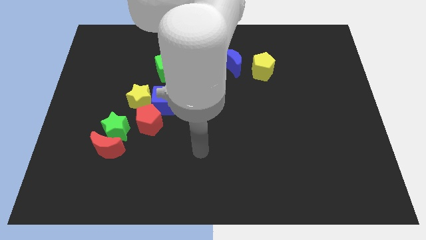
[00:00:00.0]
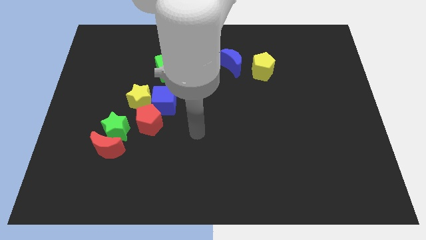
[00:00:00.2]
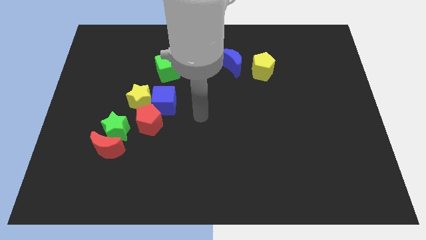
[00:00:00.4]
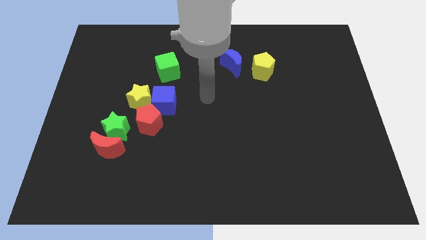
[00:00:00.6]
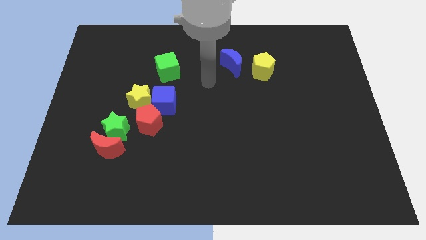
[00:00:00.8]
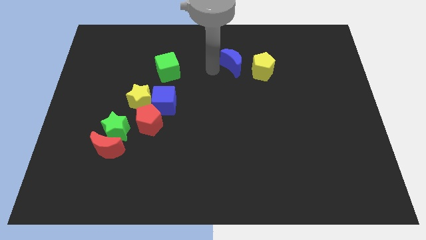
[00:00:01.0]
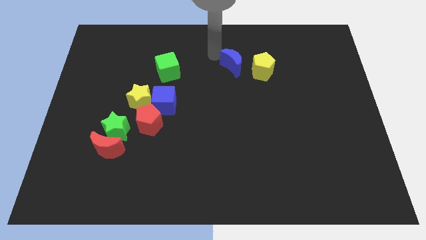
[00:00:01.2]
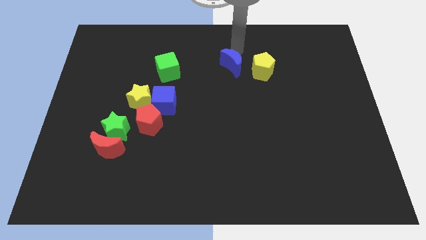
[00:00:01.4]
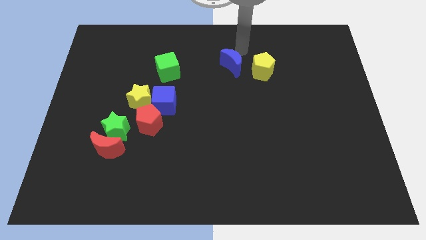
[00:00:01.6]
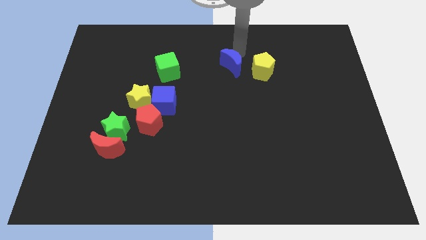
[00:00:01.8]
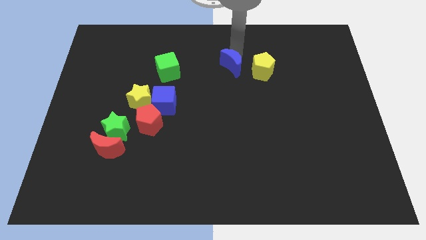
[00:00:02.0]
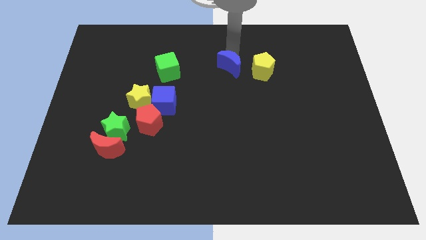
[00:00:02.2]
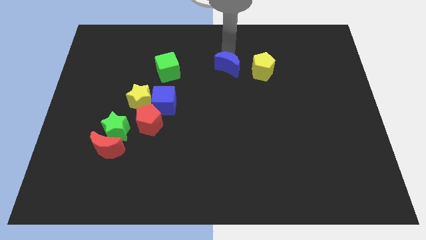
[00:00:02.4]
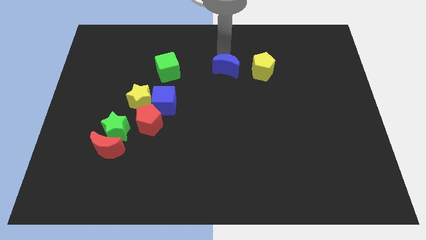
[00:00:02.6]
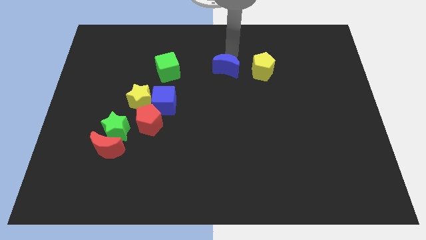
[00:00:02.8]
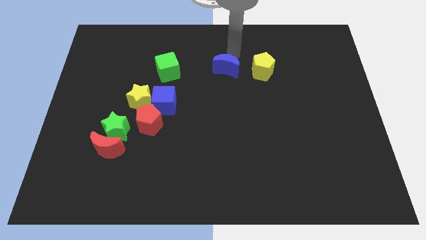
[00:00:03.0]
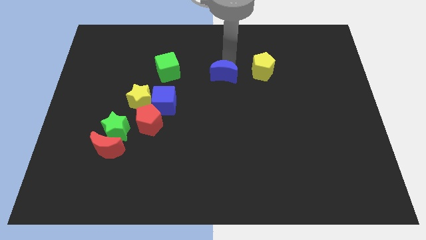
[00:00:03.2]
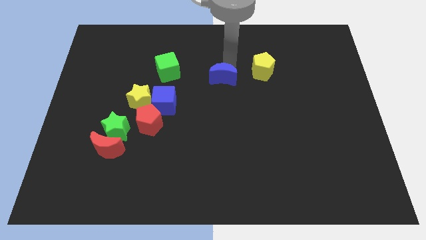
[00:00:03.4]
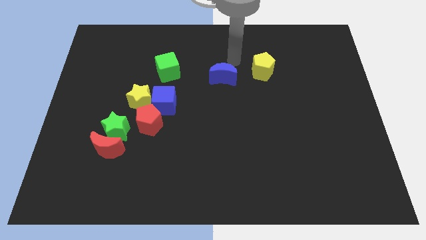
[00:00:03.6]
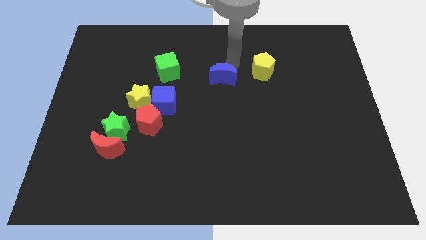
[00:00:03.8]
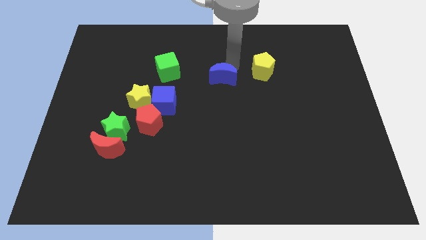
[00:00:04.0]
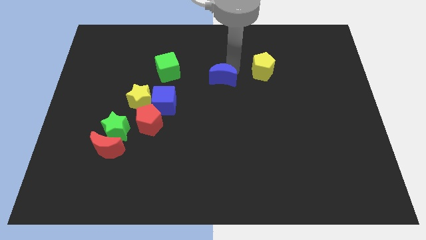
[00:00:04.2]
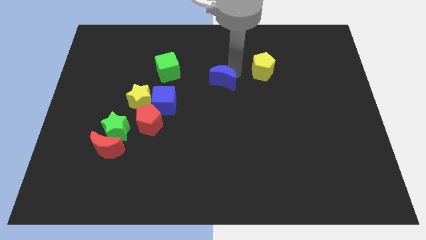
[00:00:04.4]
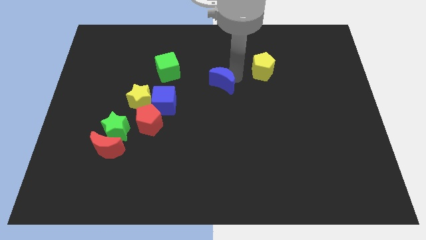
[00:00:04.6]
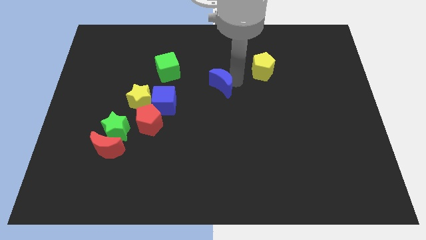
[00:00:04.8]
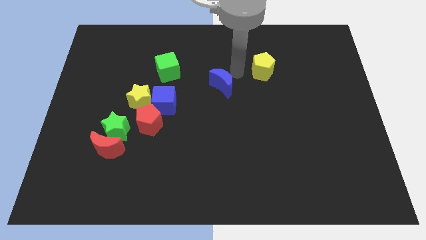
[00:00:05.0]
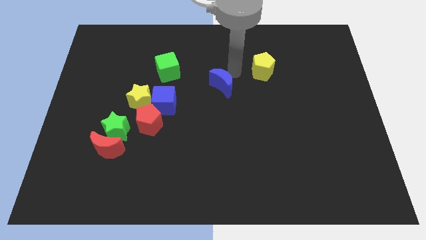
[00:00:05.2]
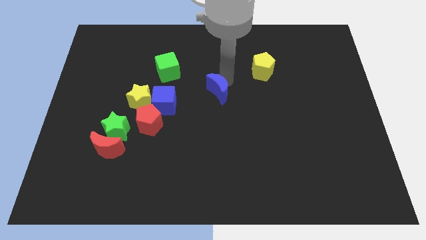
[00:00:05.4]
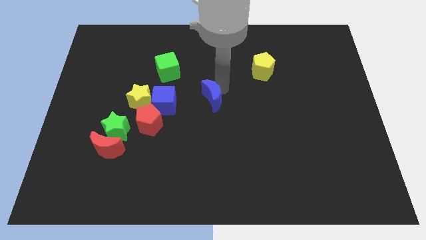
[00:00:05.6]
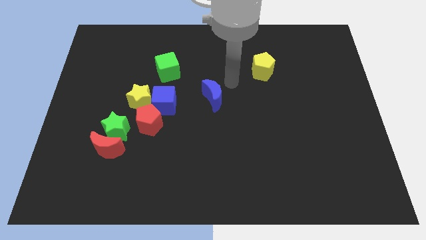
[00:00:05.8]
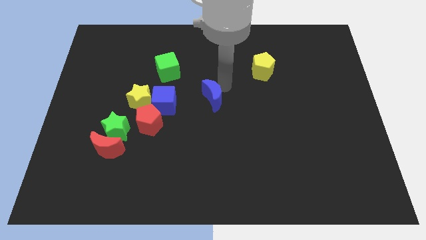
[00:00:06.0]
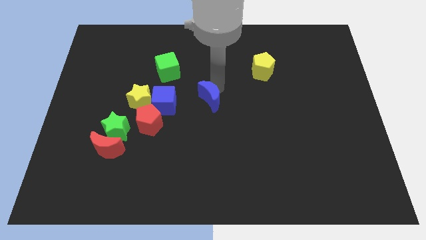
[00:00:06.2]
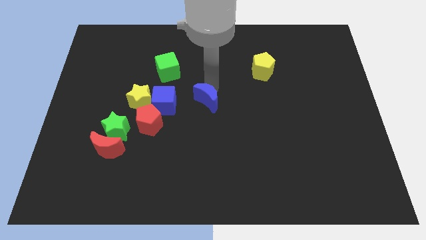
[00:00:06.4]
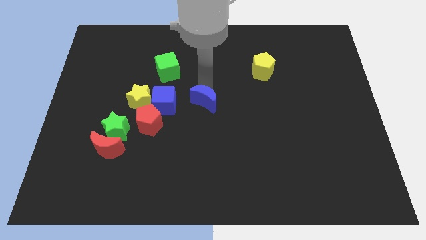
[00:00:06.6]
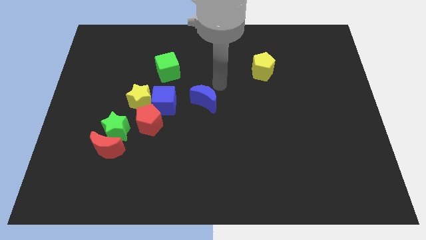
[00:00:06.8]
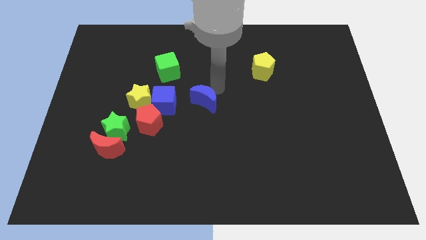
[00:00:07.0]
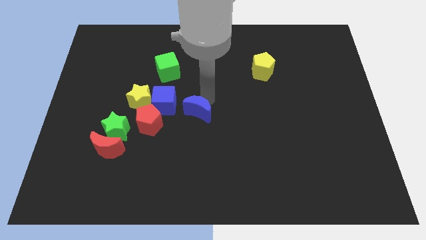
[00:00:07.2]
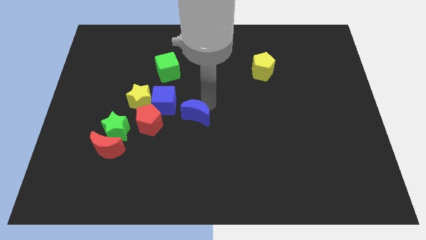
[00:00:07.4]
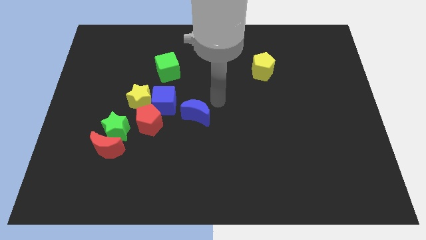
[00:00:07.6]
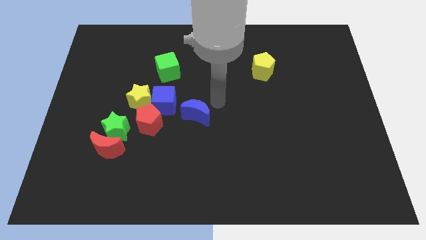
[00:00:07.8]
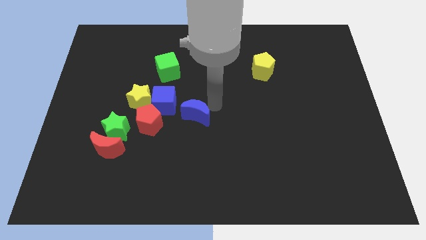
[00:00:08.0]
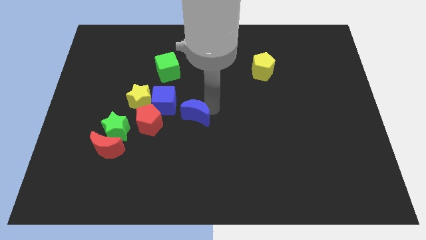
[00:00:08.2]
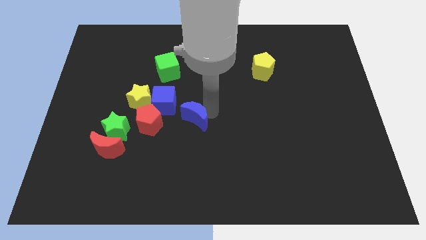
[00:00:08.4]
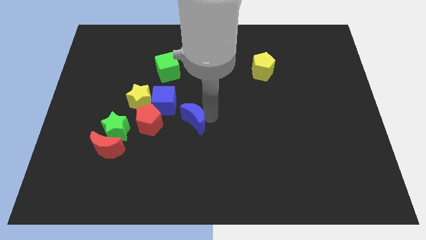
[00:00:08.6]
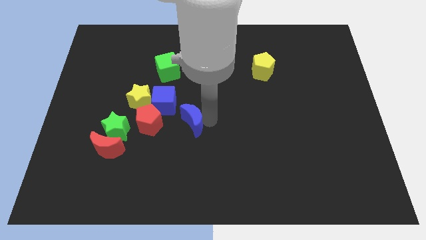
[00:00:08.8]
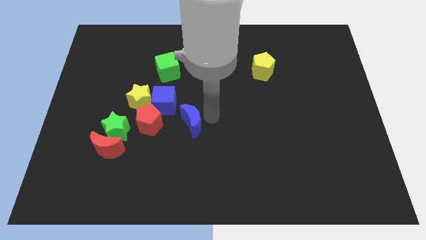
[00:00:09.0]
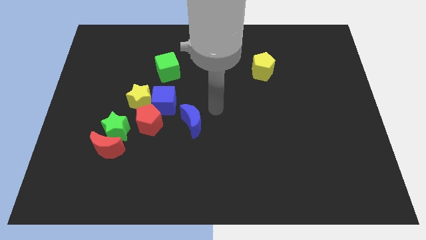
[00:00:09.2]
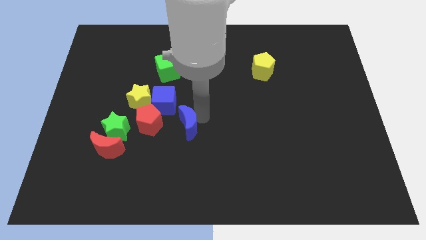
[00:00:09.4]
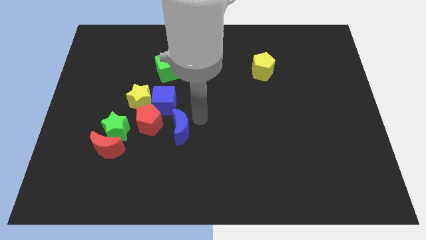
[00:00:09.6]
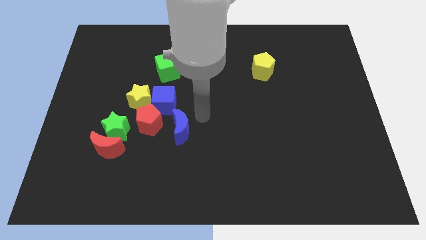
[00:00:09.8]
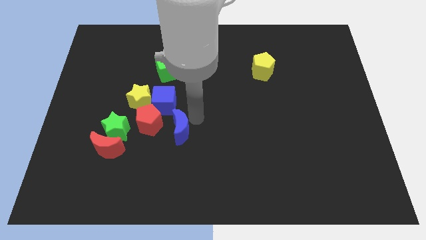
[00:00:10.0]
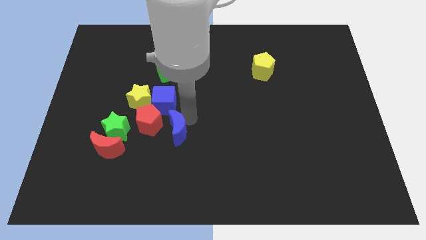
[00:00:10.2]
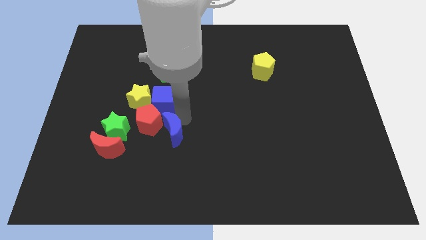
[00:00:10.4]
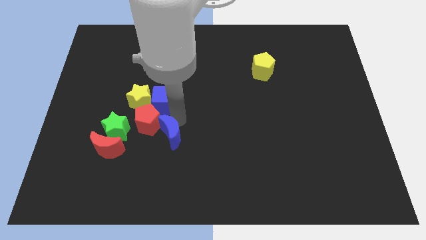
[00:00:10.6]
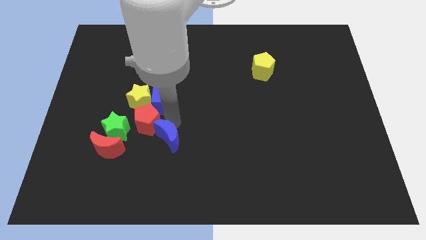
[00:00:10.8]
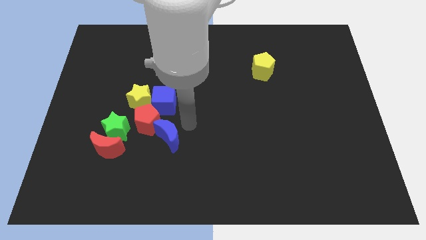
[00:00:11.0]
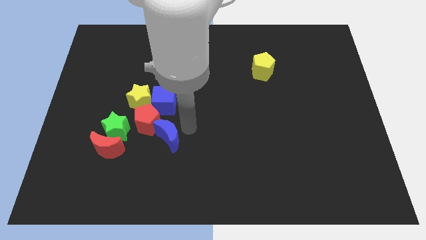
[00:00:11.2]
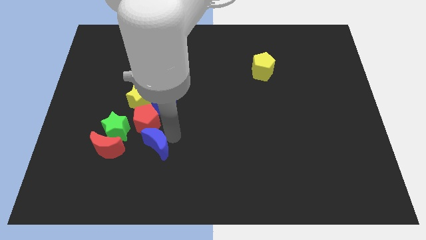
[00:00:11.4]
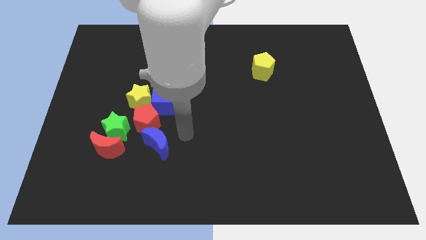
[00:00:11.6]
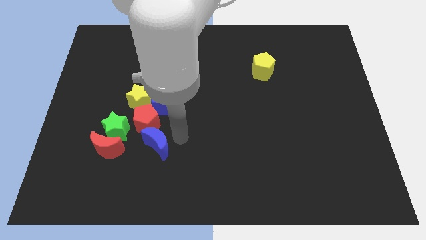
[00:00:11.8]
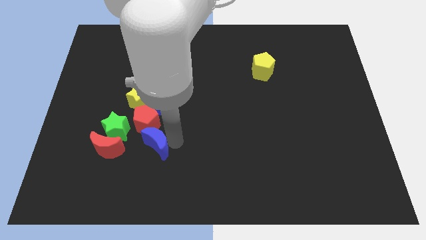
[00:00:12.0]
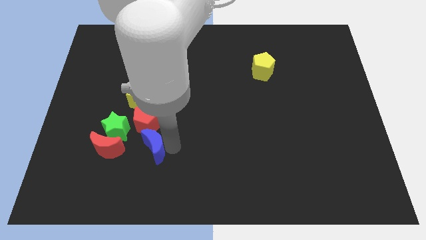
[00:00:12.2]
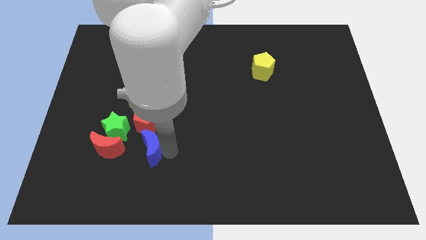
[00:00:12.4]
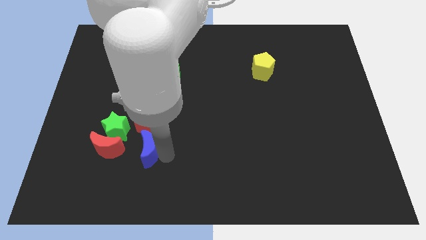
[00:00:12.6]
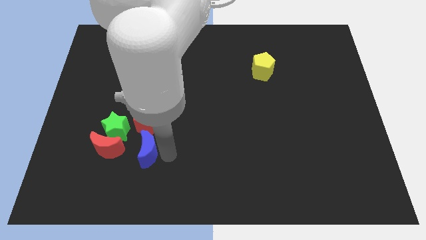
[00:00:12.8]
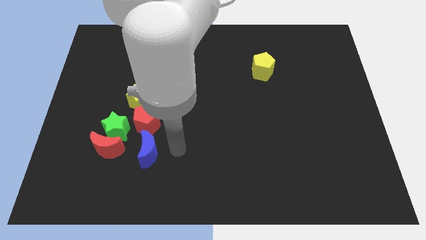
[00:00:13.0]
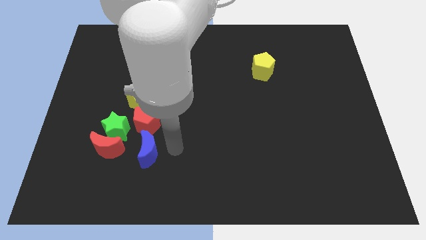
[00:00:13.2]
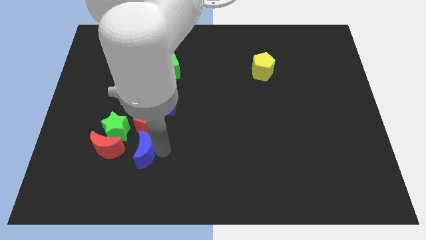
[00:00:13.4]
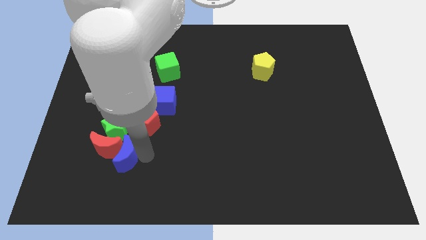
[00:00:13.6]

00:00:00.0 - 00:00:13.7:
put the blue moon next to the red moon

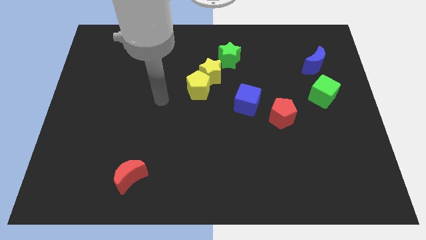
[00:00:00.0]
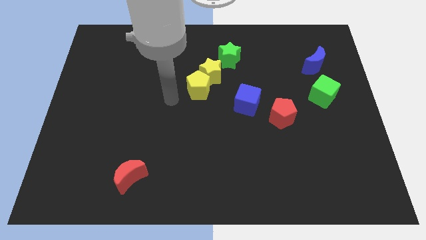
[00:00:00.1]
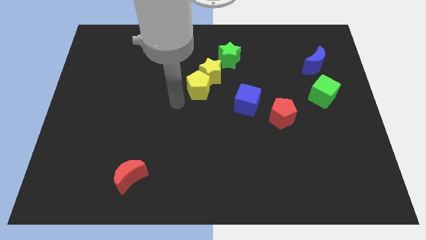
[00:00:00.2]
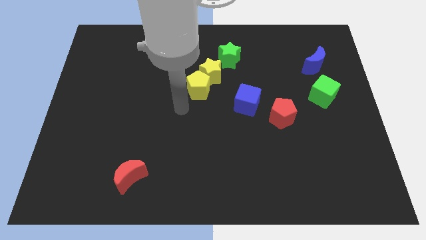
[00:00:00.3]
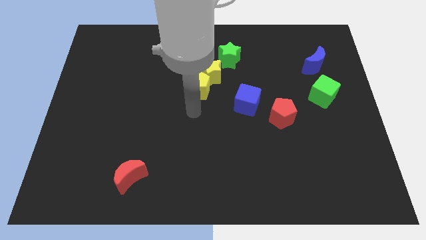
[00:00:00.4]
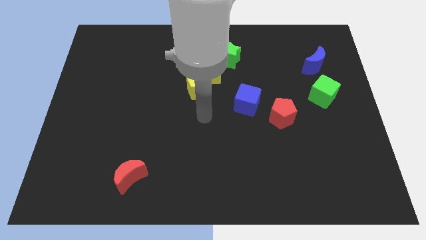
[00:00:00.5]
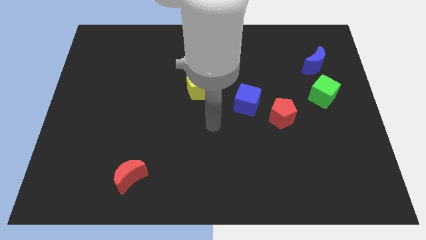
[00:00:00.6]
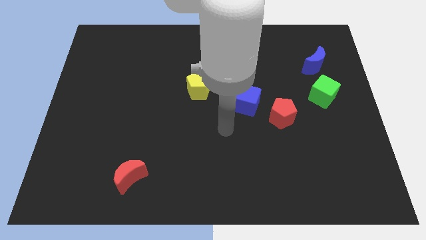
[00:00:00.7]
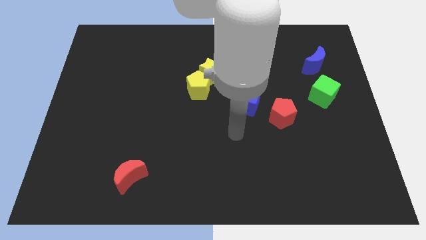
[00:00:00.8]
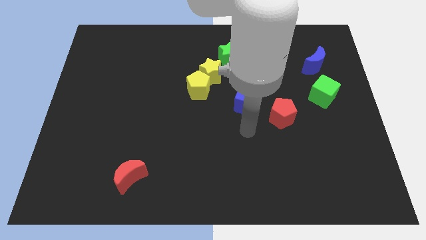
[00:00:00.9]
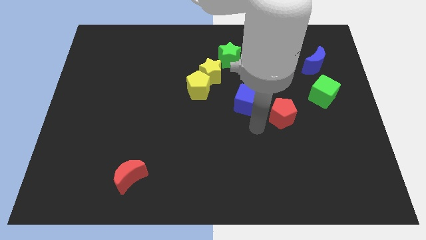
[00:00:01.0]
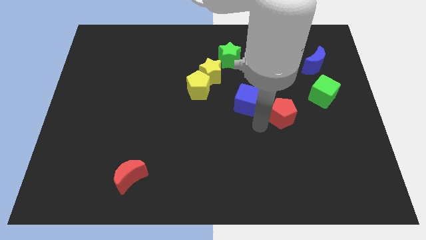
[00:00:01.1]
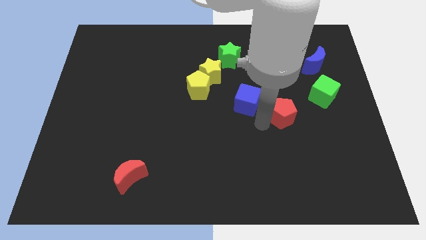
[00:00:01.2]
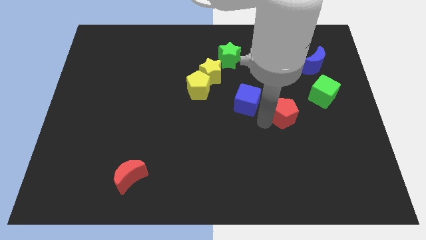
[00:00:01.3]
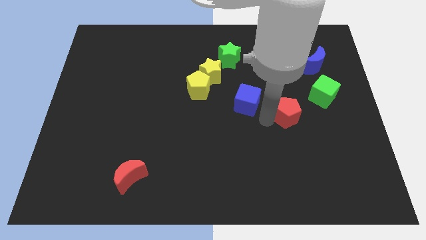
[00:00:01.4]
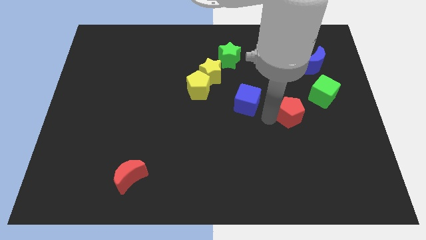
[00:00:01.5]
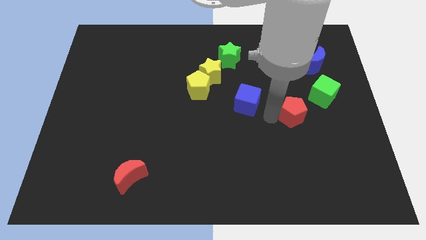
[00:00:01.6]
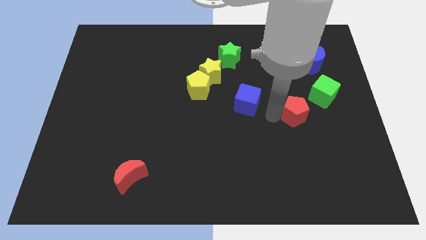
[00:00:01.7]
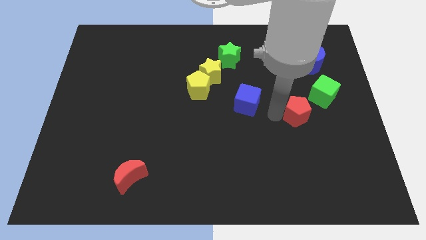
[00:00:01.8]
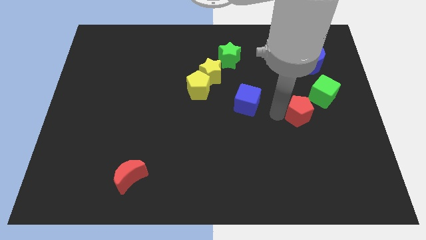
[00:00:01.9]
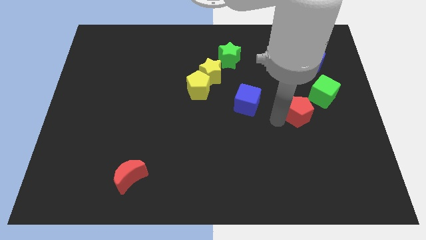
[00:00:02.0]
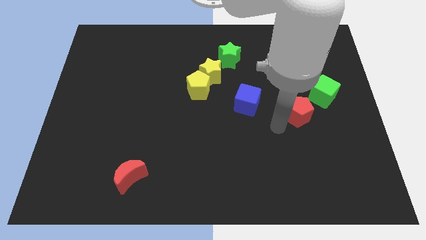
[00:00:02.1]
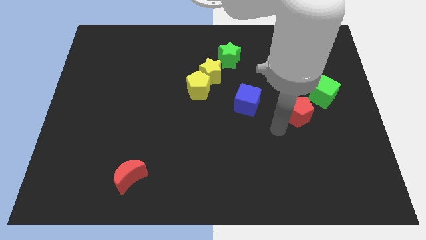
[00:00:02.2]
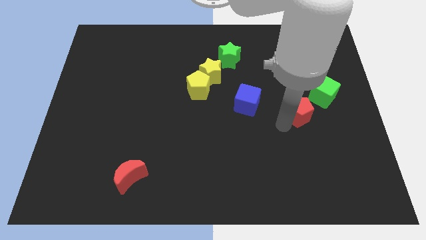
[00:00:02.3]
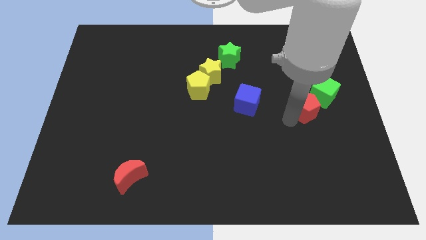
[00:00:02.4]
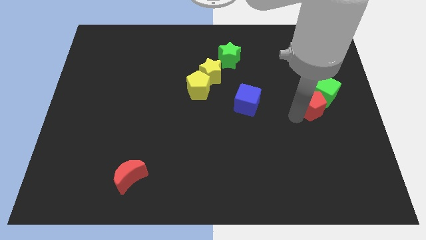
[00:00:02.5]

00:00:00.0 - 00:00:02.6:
move the red pentagon close to the green cube
